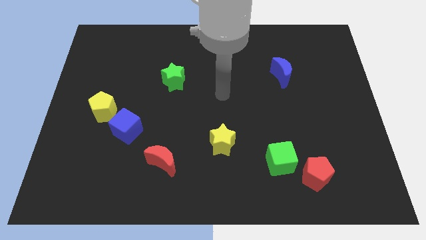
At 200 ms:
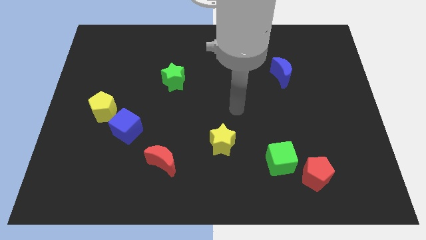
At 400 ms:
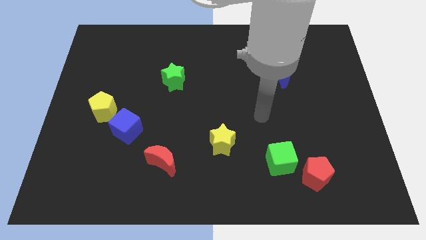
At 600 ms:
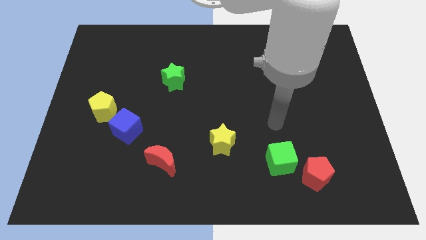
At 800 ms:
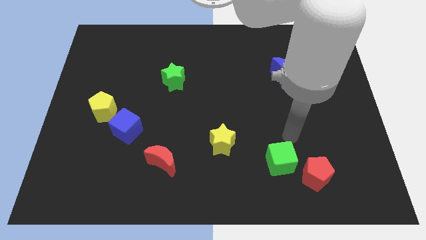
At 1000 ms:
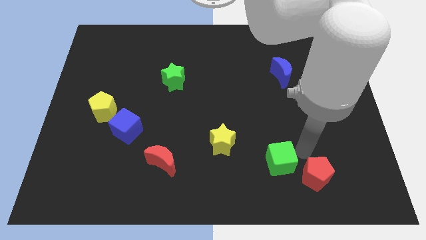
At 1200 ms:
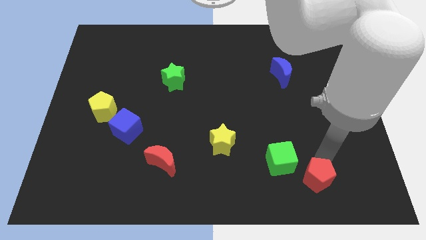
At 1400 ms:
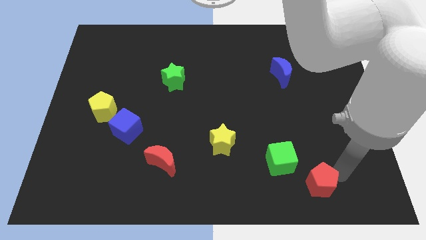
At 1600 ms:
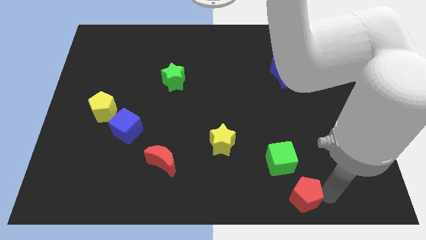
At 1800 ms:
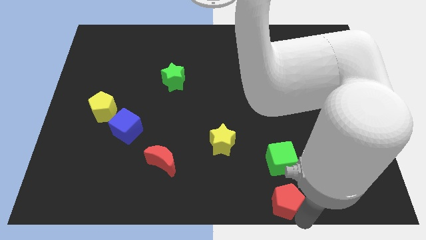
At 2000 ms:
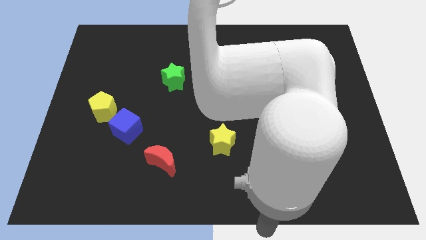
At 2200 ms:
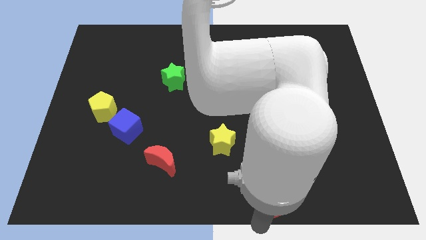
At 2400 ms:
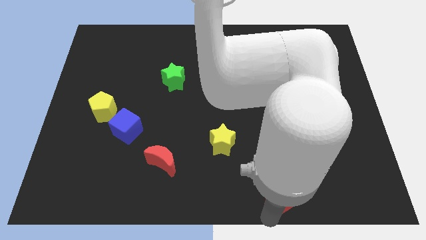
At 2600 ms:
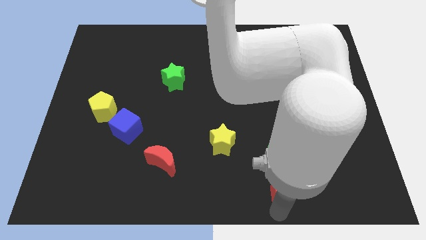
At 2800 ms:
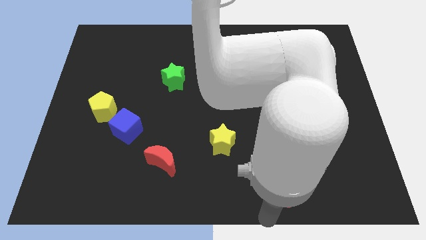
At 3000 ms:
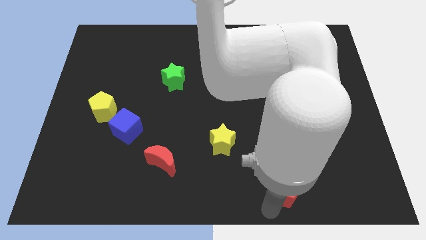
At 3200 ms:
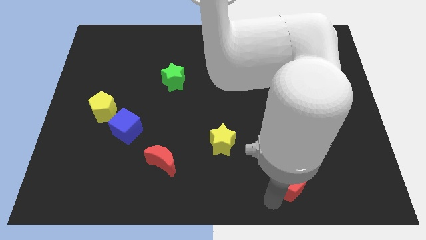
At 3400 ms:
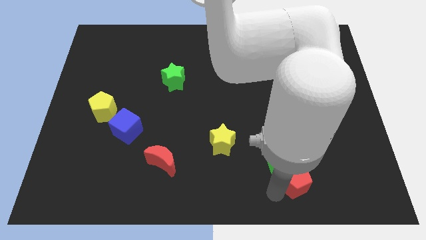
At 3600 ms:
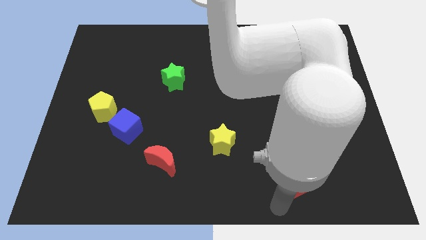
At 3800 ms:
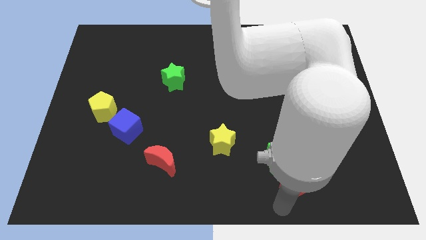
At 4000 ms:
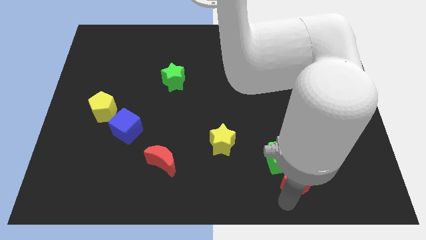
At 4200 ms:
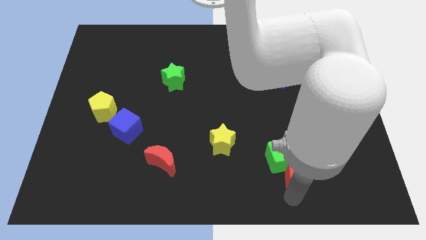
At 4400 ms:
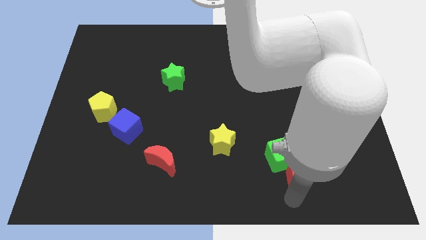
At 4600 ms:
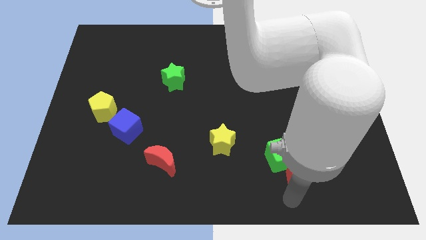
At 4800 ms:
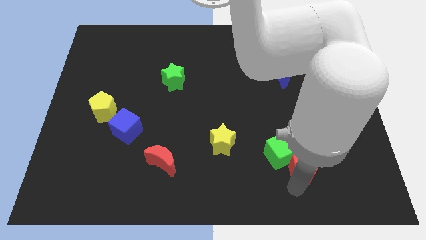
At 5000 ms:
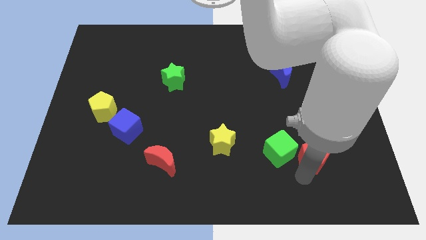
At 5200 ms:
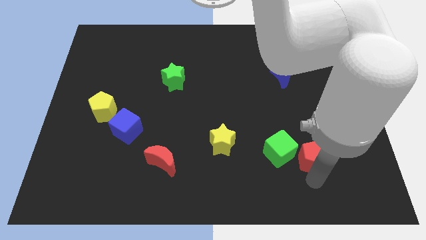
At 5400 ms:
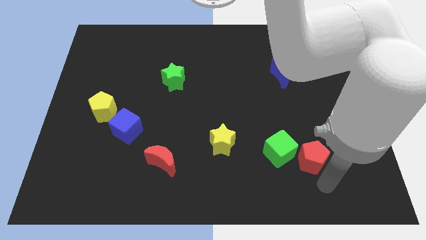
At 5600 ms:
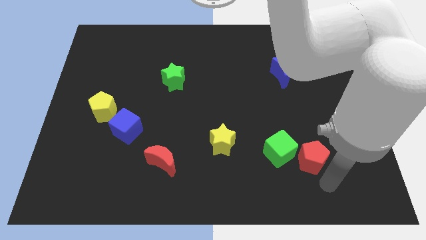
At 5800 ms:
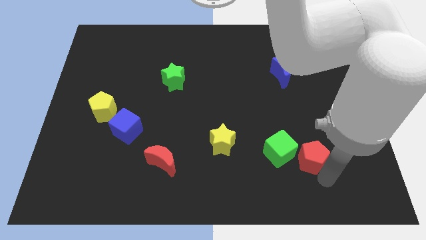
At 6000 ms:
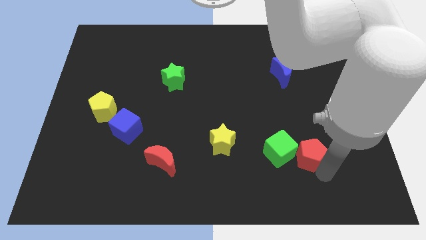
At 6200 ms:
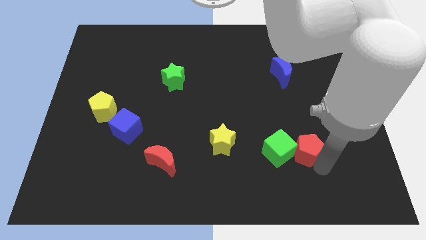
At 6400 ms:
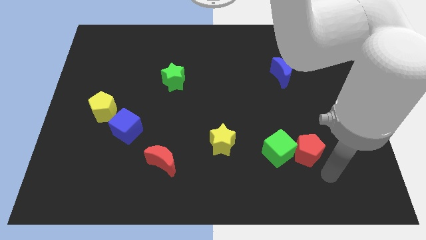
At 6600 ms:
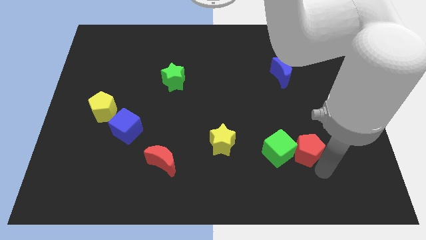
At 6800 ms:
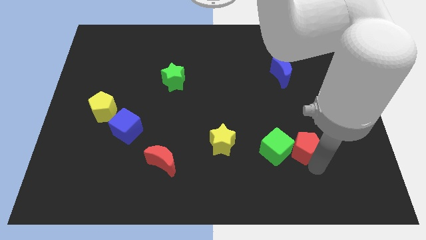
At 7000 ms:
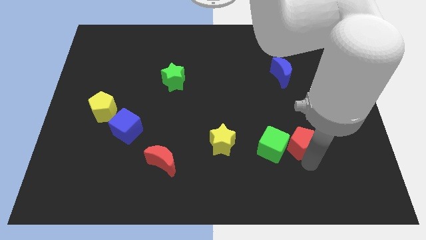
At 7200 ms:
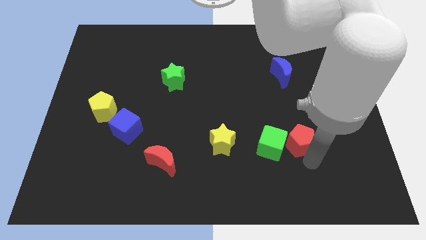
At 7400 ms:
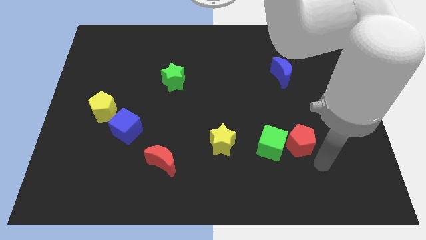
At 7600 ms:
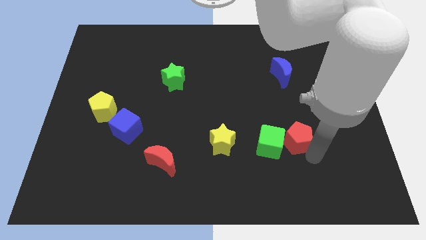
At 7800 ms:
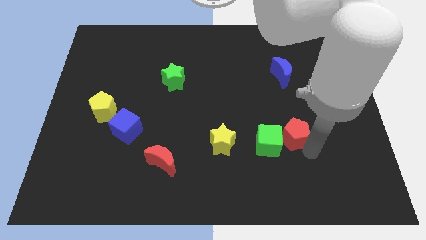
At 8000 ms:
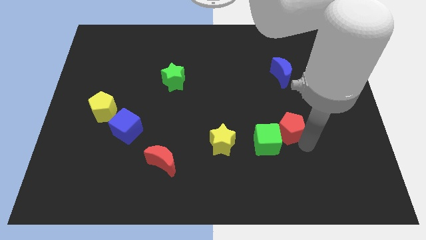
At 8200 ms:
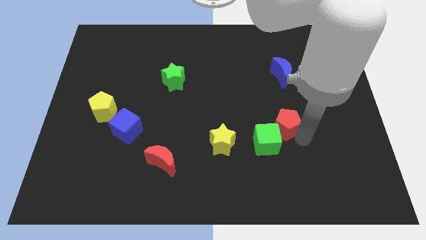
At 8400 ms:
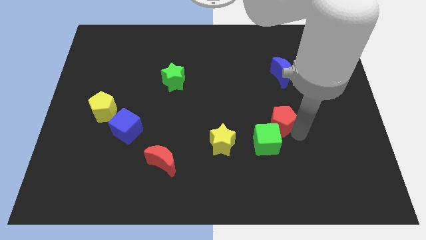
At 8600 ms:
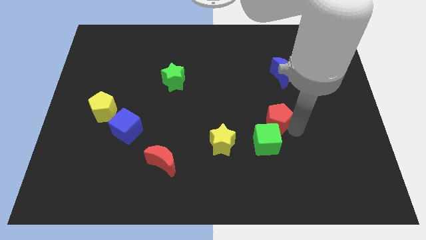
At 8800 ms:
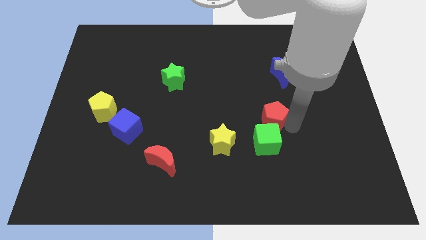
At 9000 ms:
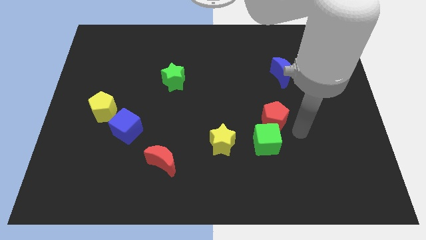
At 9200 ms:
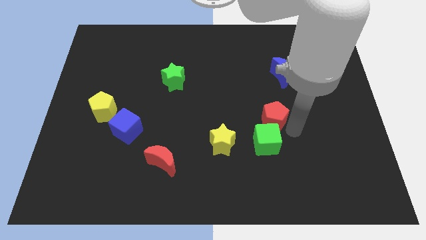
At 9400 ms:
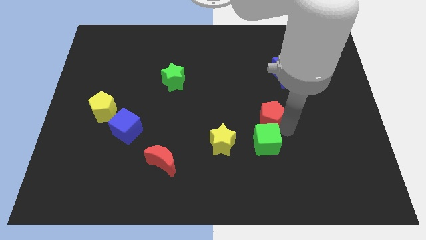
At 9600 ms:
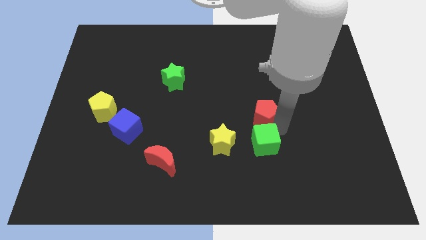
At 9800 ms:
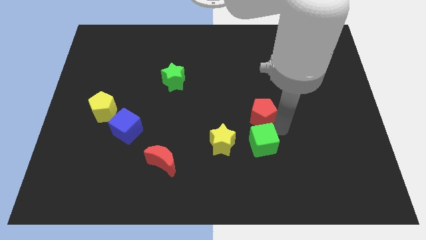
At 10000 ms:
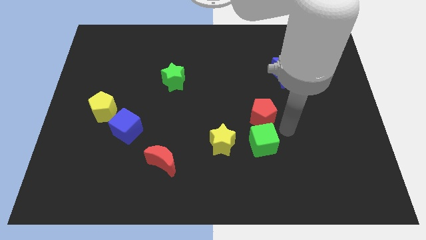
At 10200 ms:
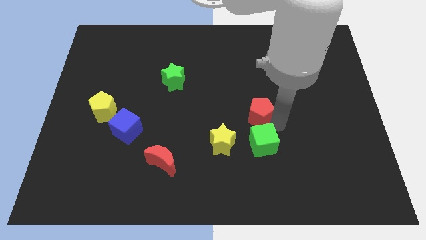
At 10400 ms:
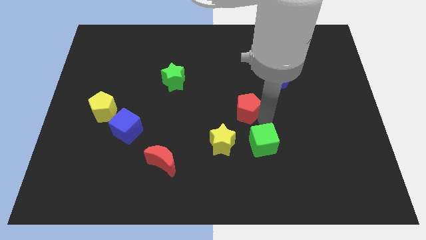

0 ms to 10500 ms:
move the red pentagon diagonally up and left

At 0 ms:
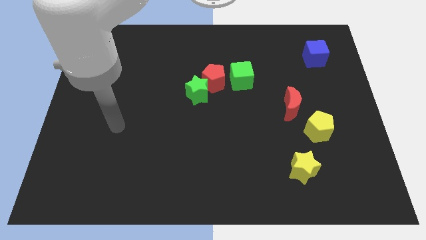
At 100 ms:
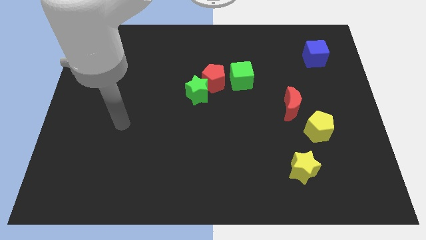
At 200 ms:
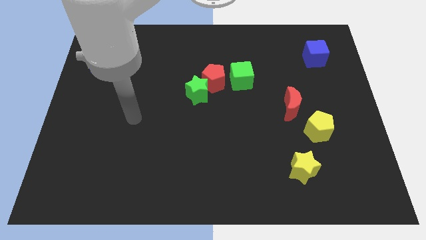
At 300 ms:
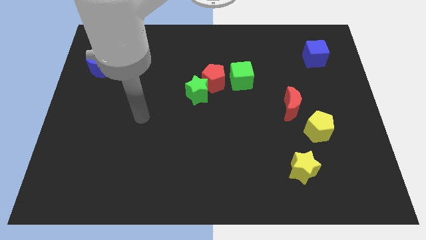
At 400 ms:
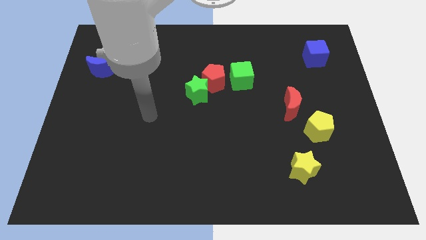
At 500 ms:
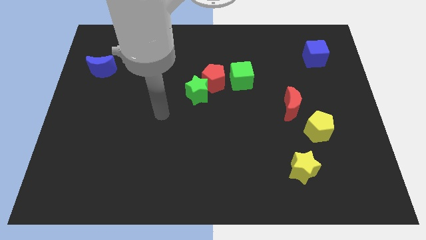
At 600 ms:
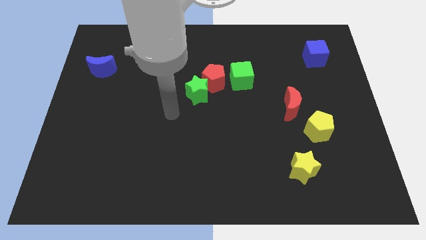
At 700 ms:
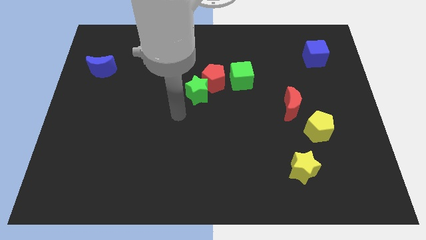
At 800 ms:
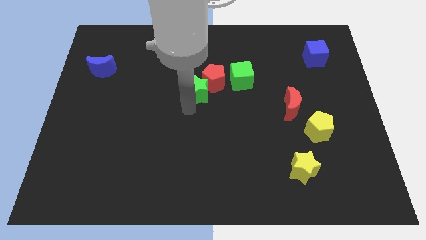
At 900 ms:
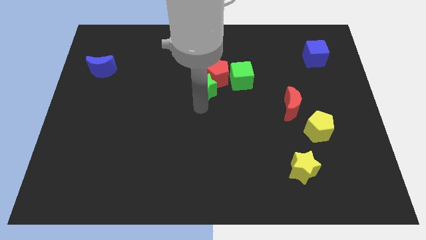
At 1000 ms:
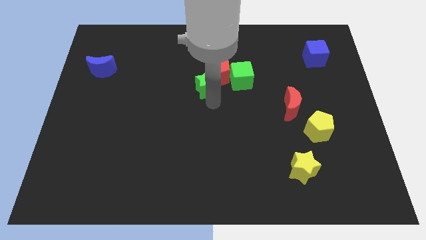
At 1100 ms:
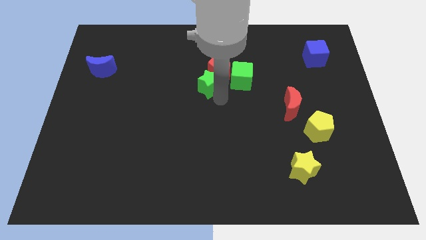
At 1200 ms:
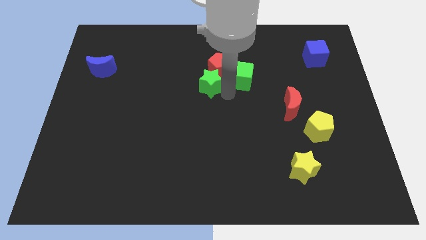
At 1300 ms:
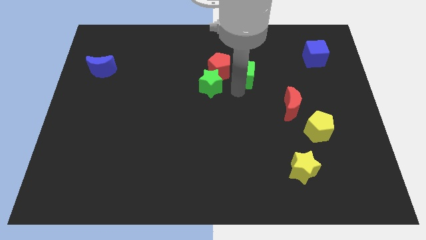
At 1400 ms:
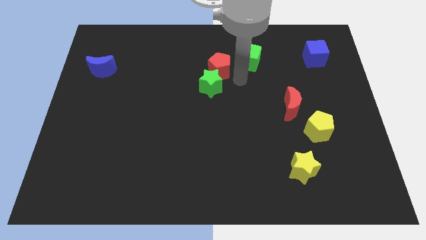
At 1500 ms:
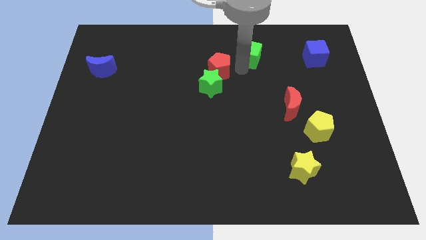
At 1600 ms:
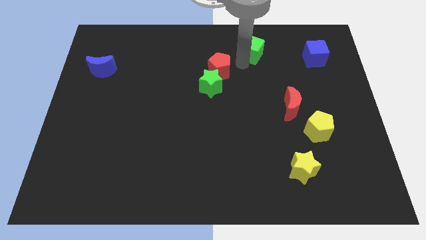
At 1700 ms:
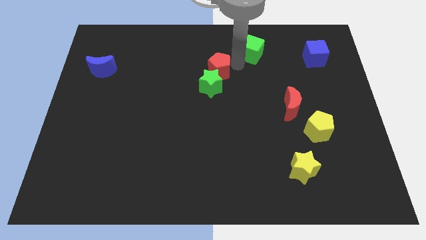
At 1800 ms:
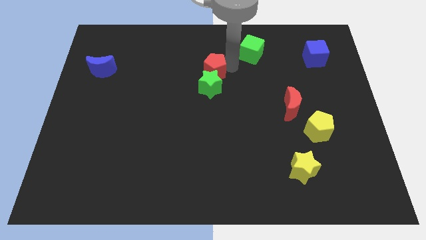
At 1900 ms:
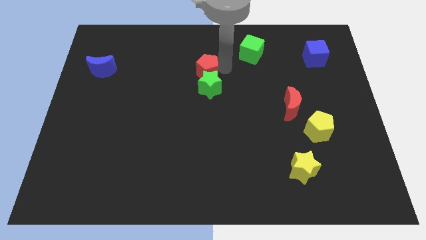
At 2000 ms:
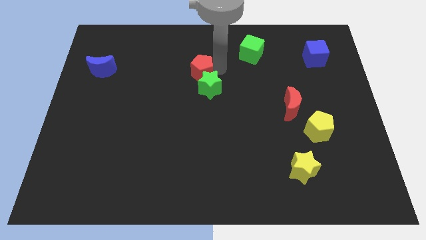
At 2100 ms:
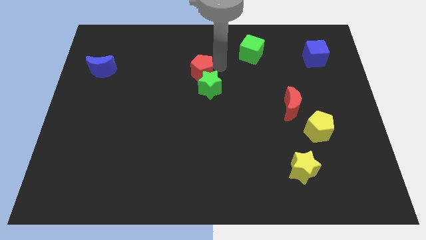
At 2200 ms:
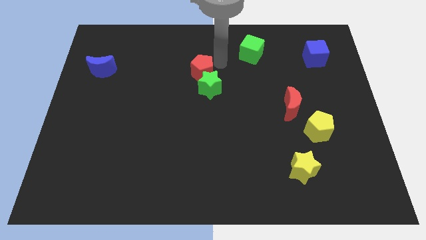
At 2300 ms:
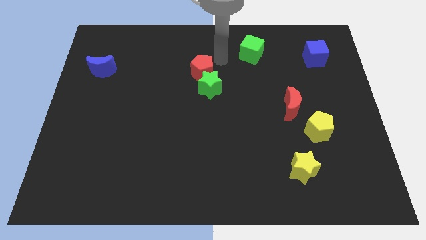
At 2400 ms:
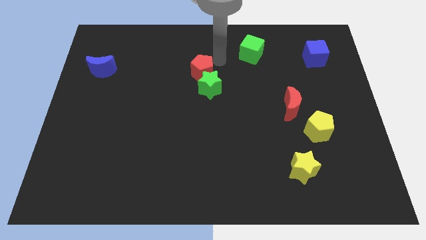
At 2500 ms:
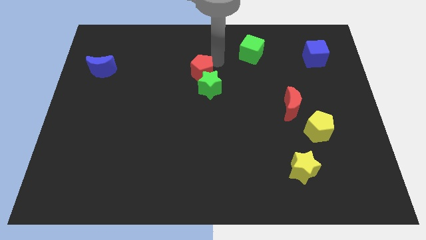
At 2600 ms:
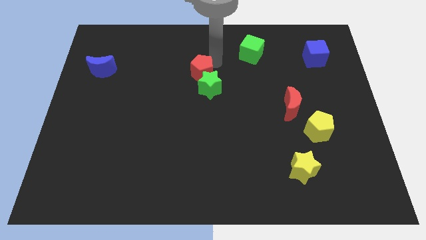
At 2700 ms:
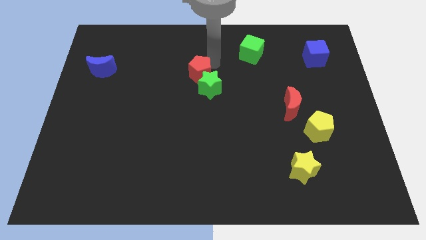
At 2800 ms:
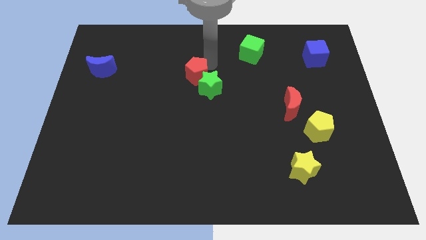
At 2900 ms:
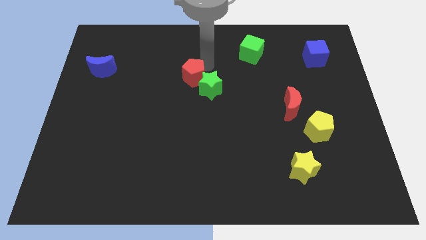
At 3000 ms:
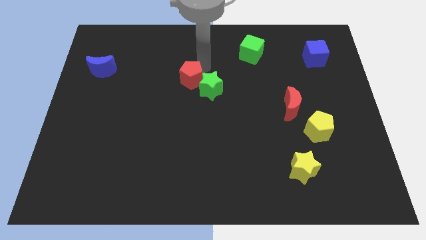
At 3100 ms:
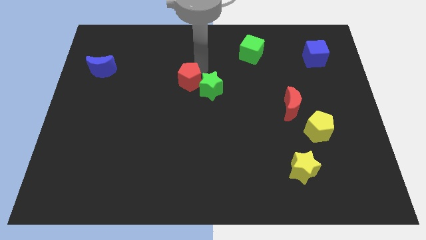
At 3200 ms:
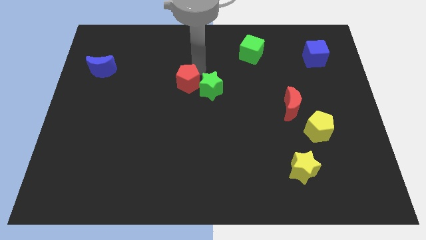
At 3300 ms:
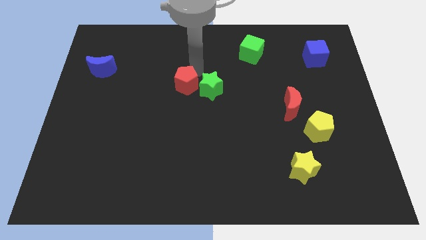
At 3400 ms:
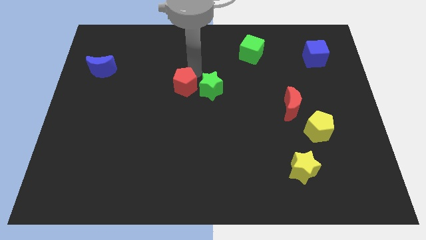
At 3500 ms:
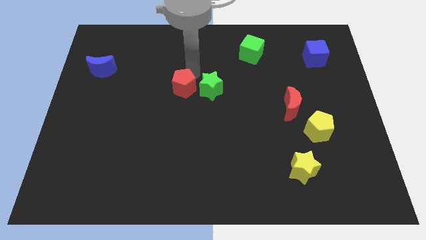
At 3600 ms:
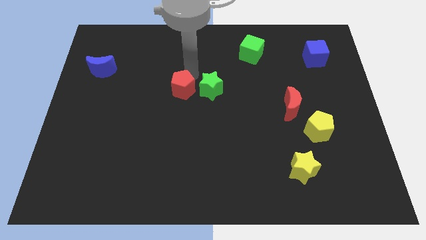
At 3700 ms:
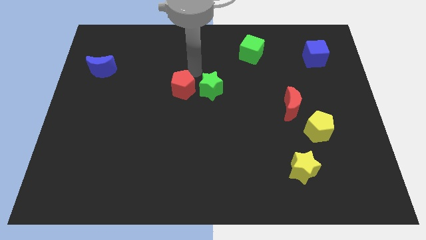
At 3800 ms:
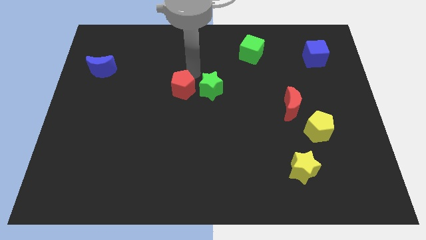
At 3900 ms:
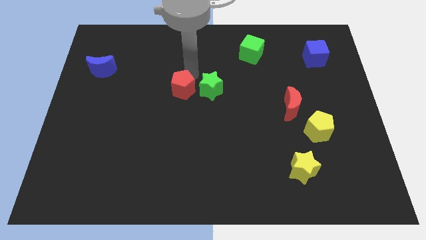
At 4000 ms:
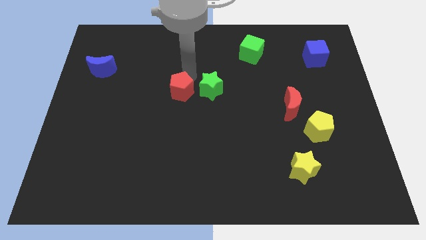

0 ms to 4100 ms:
slightly slide the red pentagon downwards and left diagonally
